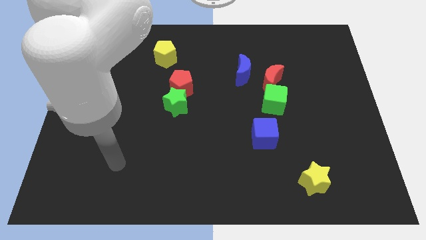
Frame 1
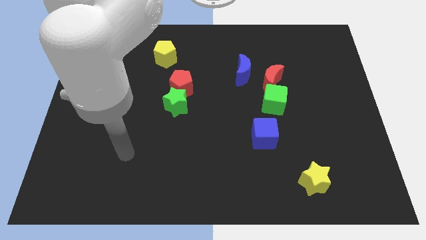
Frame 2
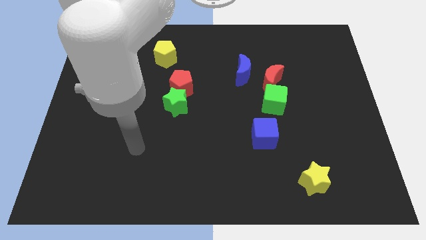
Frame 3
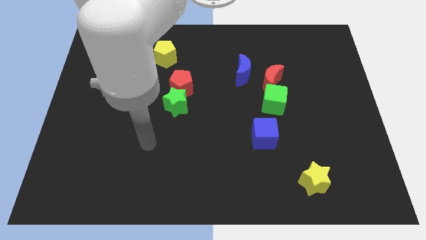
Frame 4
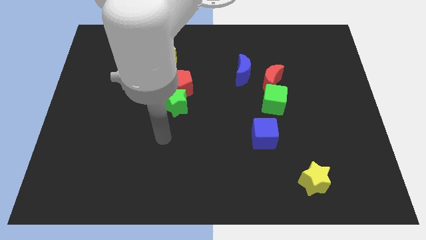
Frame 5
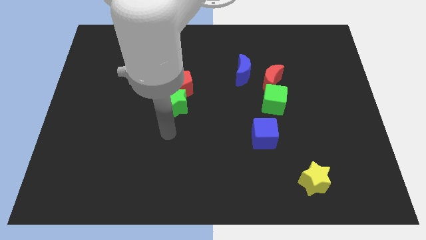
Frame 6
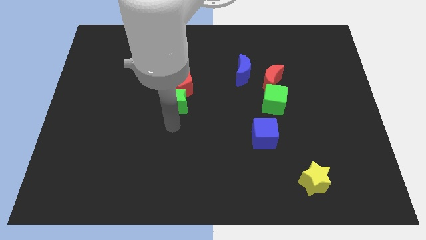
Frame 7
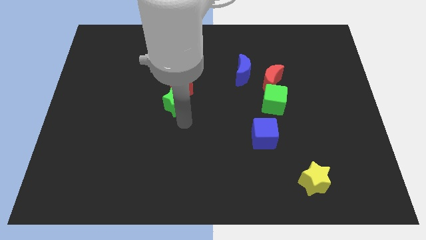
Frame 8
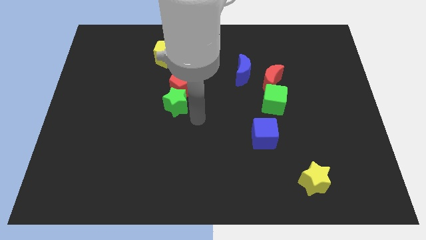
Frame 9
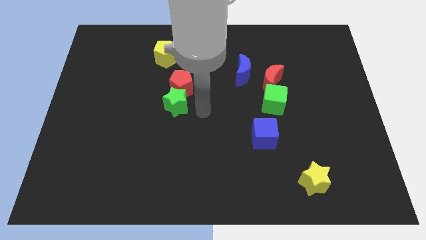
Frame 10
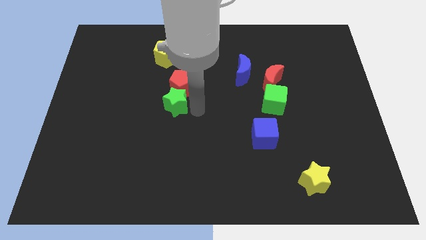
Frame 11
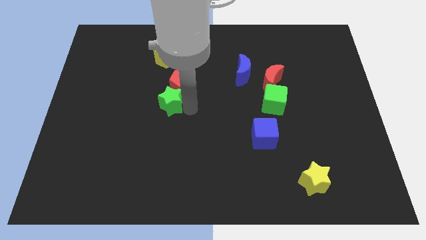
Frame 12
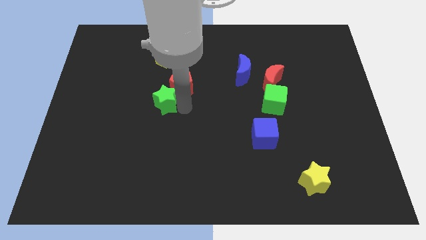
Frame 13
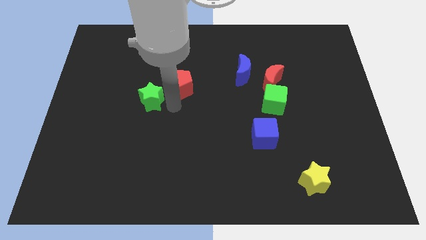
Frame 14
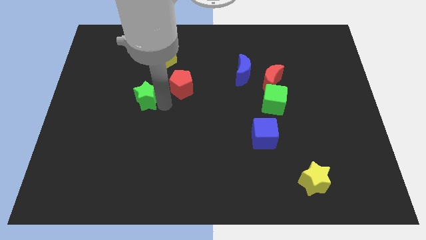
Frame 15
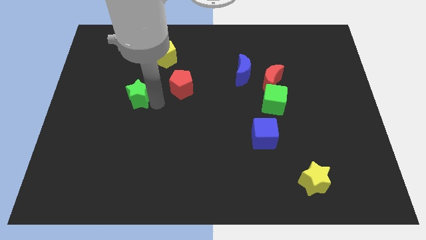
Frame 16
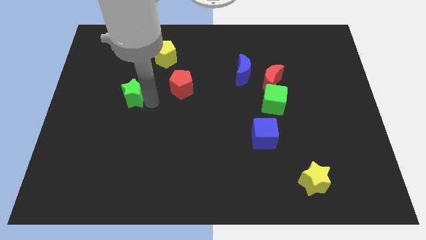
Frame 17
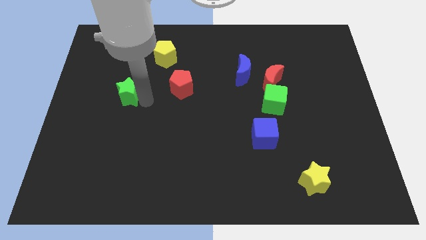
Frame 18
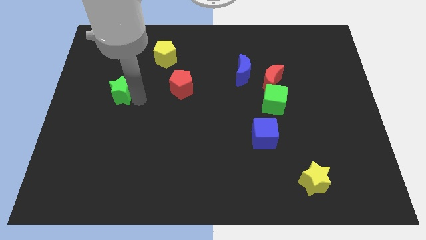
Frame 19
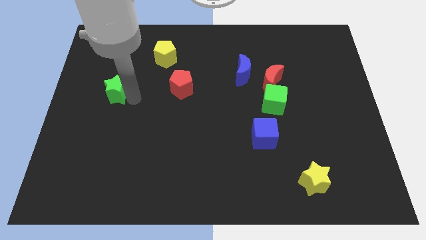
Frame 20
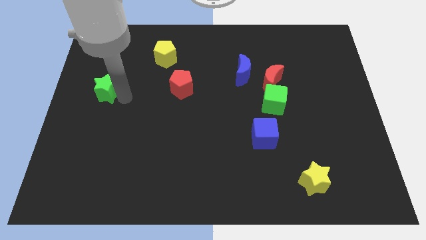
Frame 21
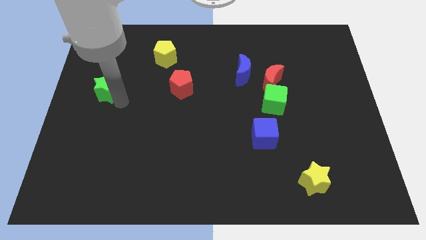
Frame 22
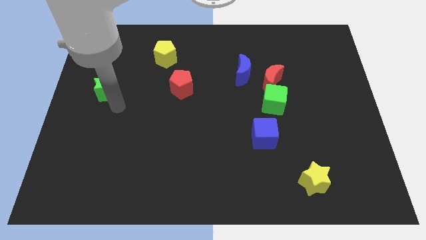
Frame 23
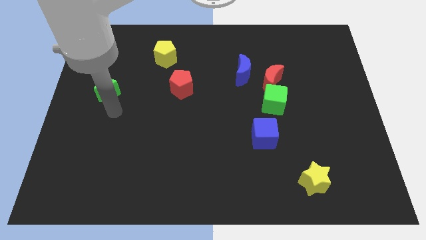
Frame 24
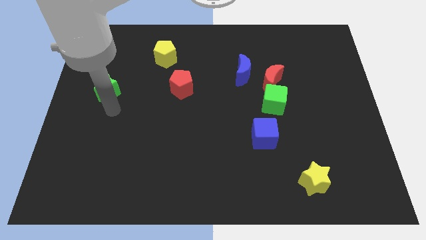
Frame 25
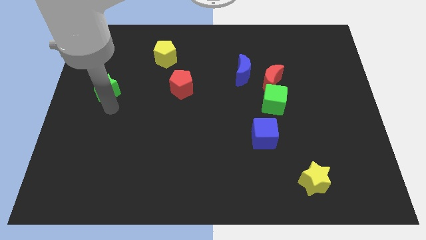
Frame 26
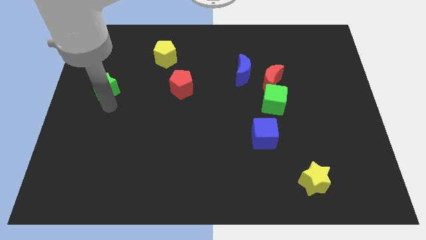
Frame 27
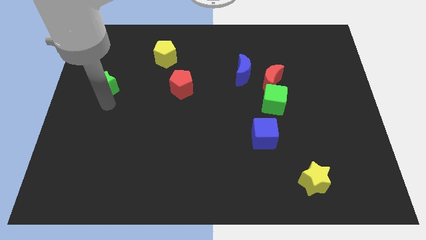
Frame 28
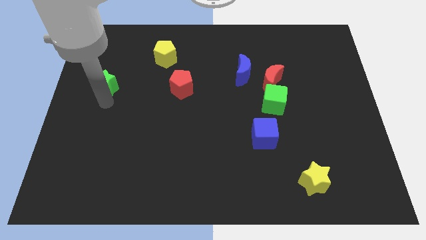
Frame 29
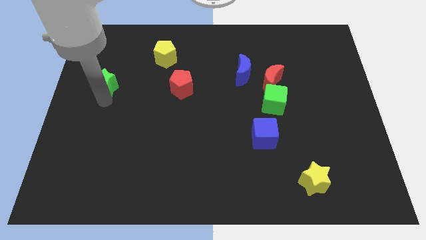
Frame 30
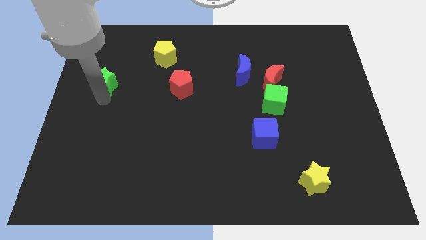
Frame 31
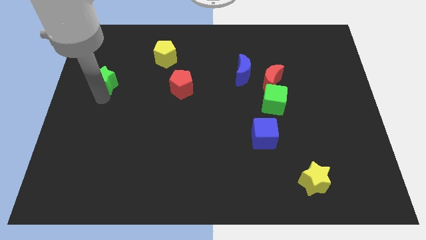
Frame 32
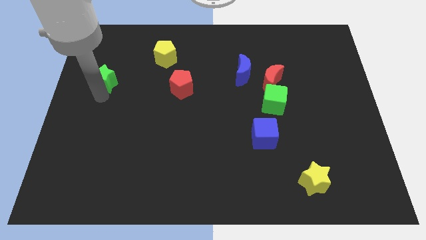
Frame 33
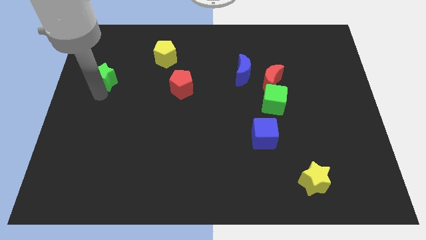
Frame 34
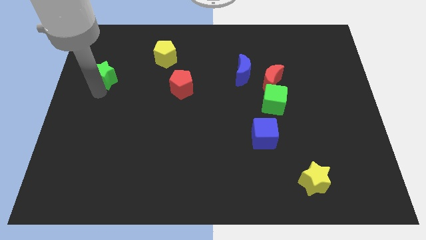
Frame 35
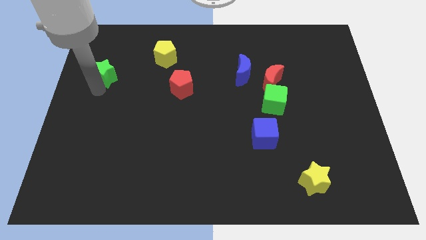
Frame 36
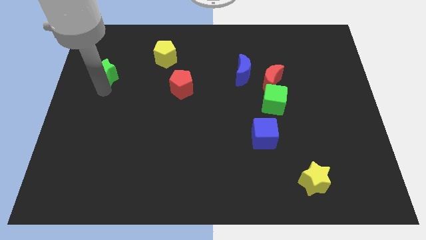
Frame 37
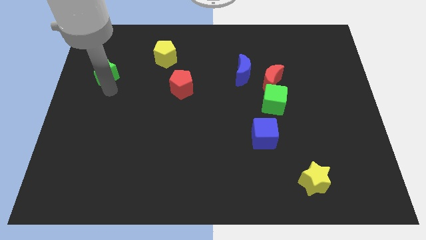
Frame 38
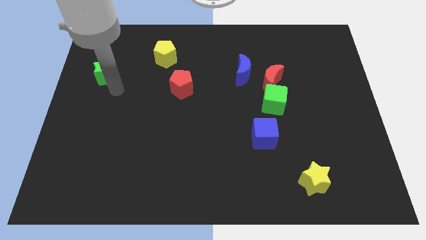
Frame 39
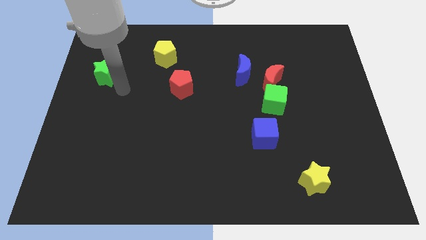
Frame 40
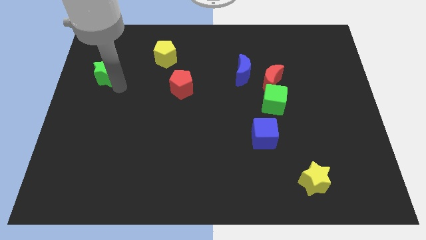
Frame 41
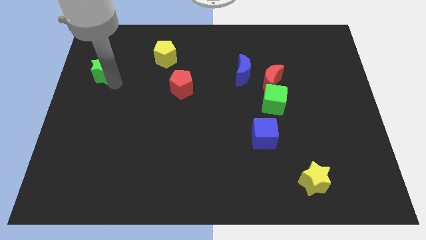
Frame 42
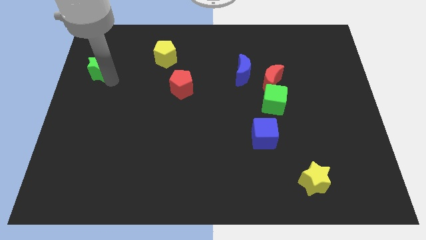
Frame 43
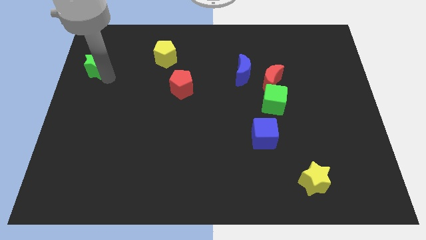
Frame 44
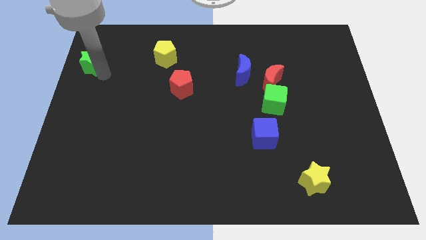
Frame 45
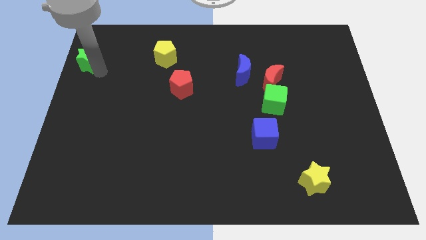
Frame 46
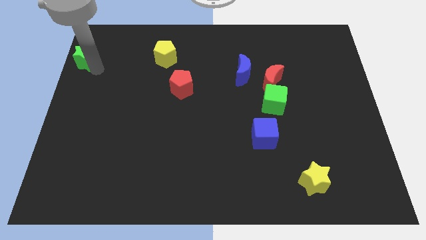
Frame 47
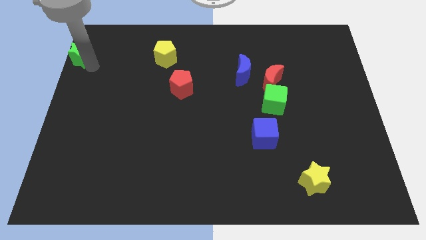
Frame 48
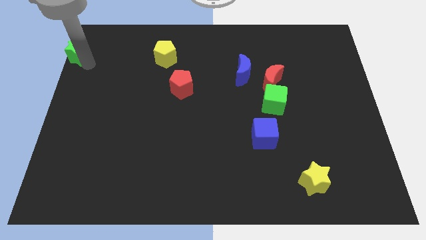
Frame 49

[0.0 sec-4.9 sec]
push the green star to the upper left corner

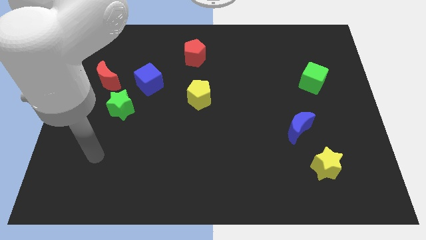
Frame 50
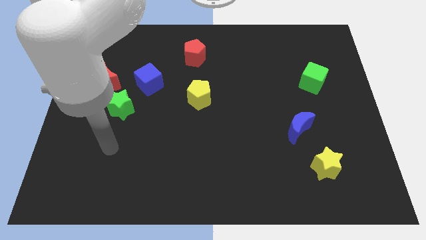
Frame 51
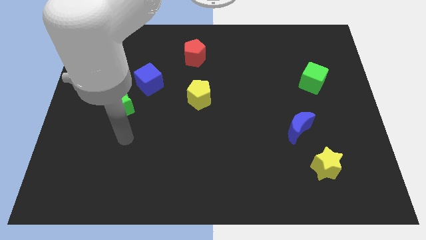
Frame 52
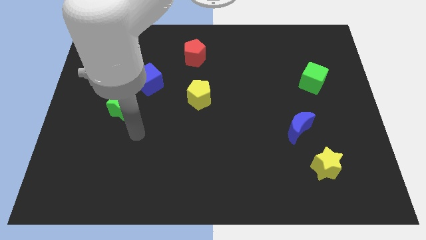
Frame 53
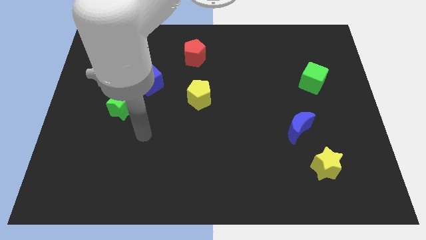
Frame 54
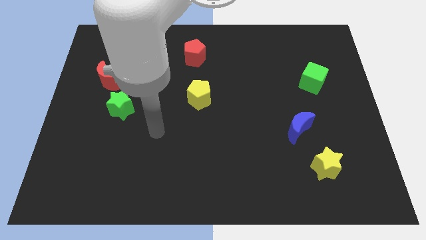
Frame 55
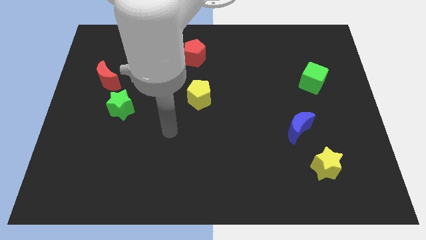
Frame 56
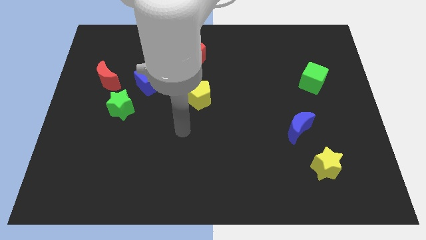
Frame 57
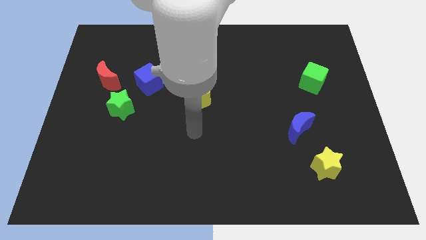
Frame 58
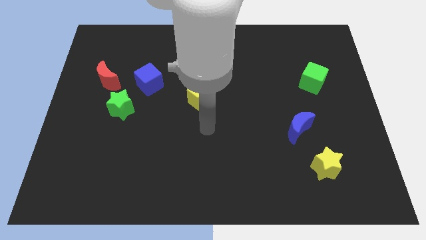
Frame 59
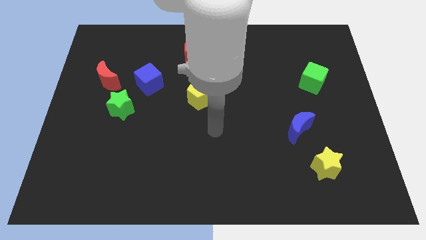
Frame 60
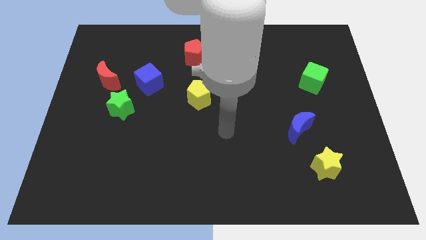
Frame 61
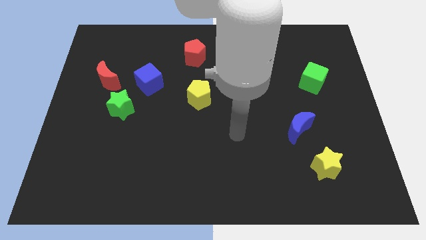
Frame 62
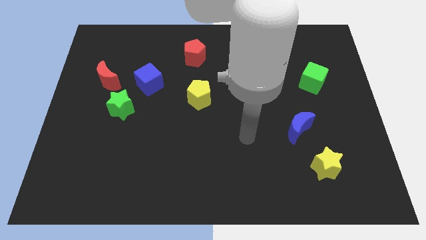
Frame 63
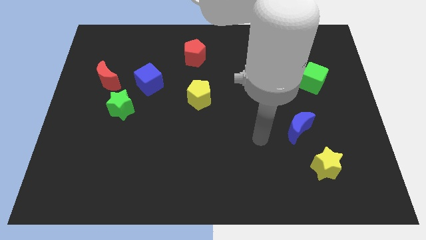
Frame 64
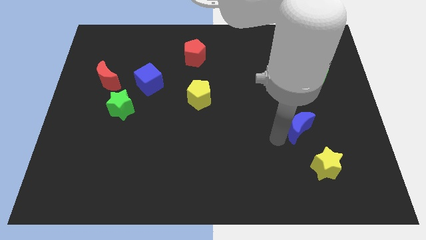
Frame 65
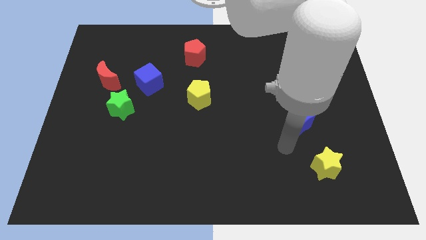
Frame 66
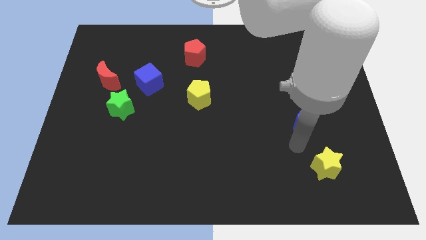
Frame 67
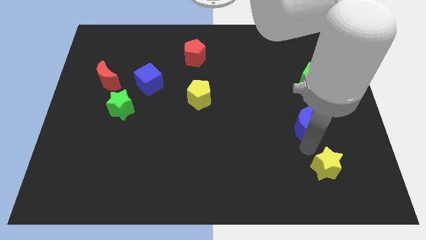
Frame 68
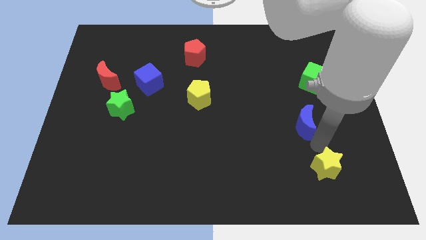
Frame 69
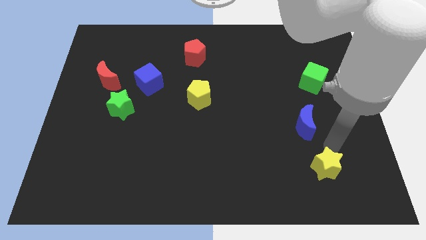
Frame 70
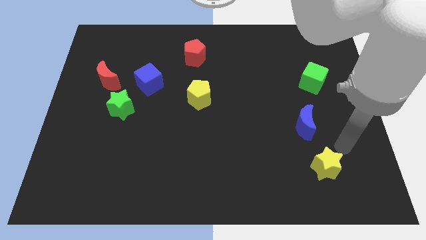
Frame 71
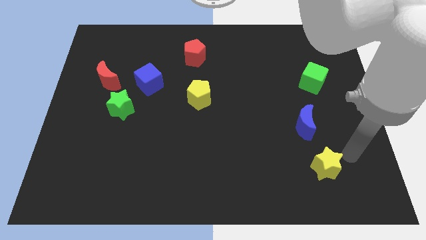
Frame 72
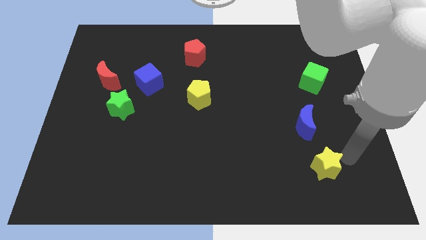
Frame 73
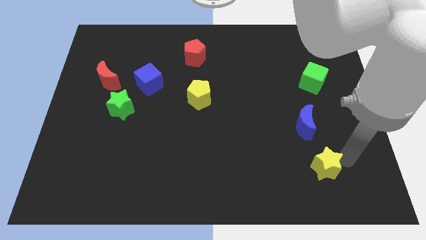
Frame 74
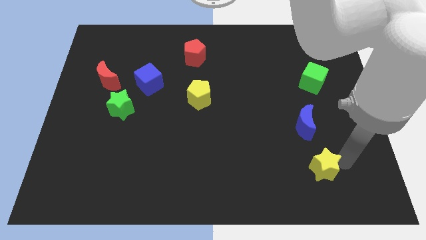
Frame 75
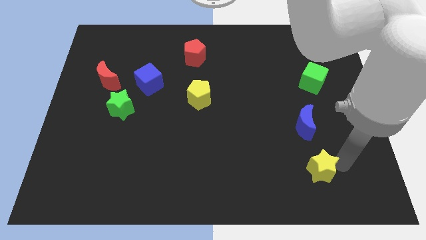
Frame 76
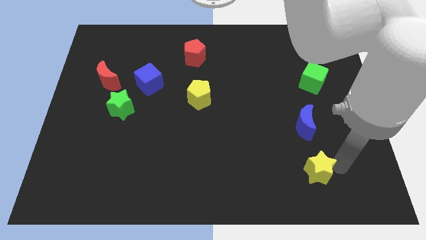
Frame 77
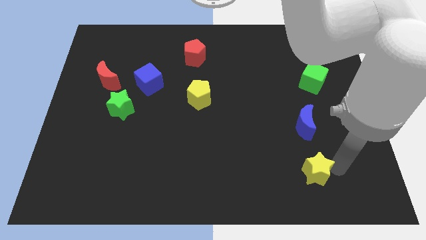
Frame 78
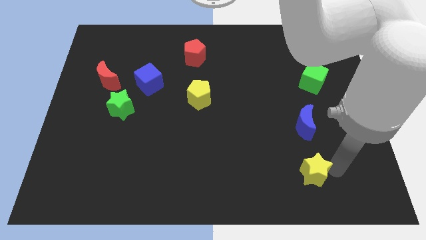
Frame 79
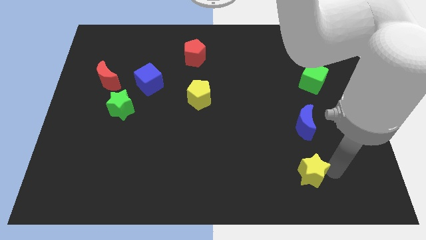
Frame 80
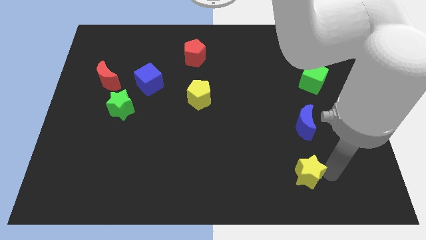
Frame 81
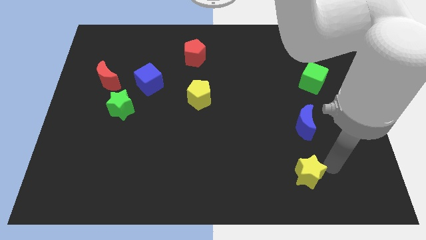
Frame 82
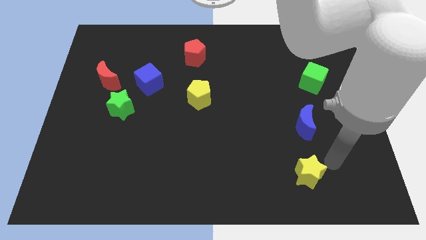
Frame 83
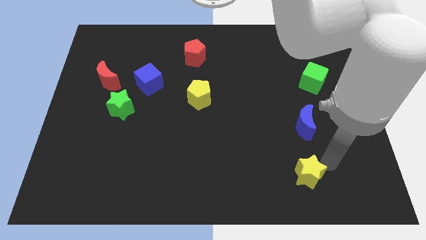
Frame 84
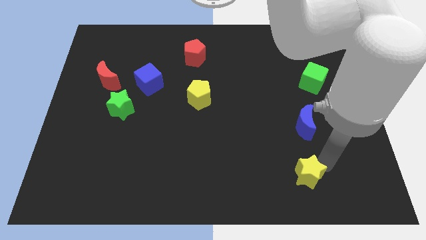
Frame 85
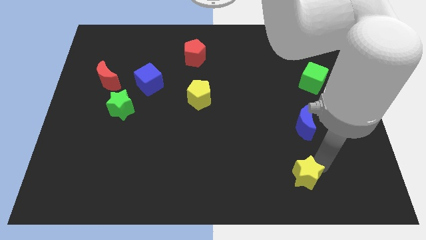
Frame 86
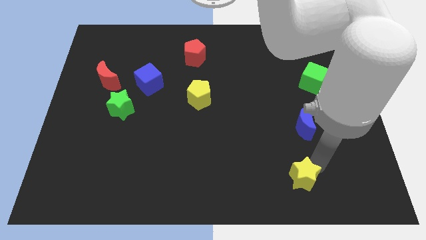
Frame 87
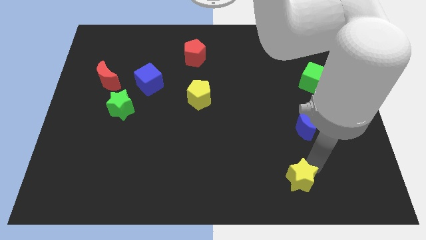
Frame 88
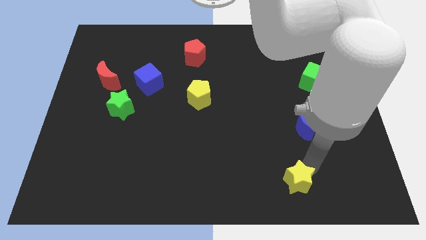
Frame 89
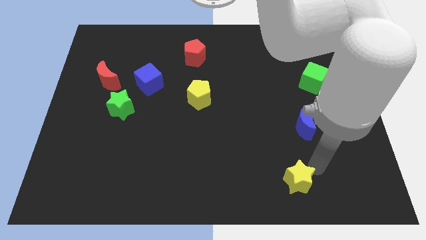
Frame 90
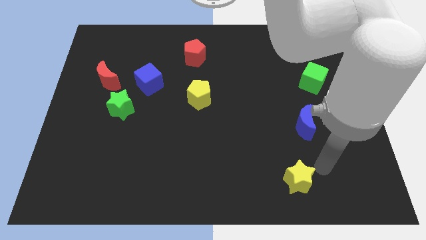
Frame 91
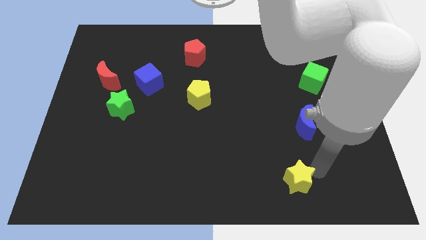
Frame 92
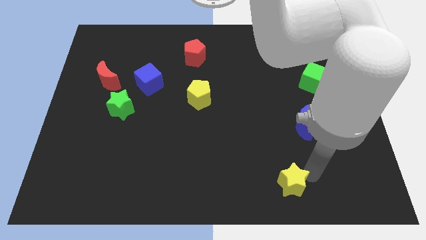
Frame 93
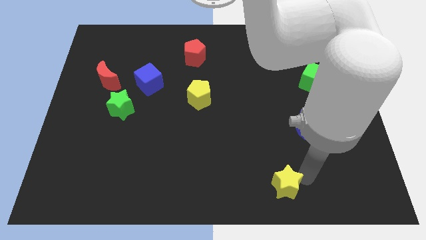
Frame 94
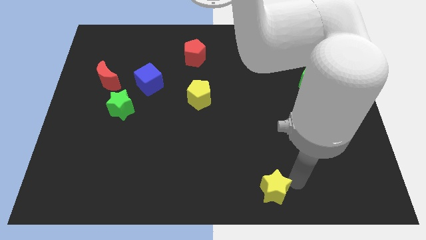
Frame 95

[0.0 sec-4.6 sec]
put the yellow star to the bottom side
